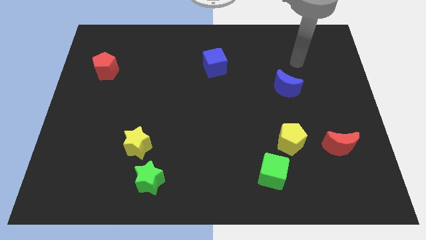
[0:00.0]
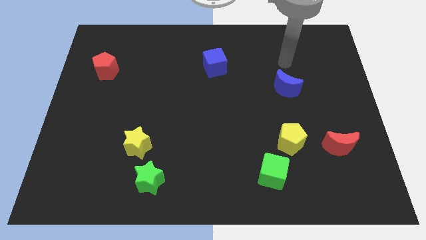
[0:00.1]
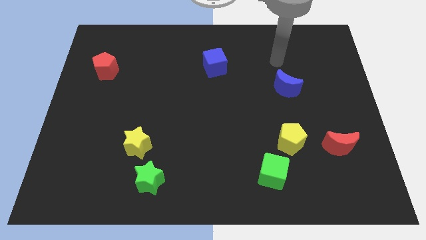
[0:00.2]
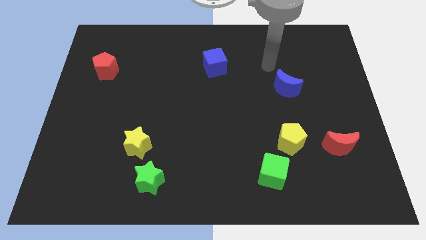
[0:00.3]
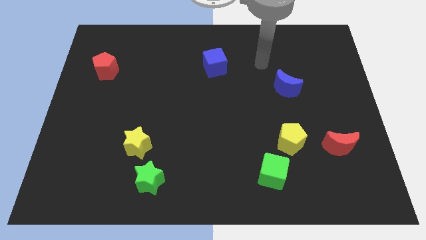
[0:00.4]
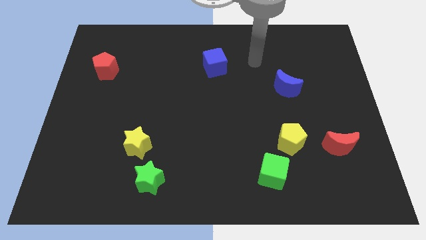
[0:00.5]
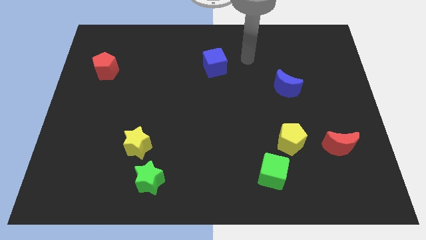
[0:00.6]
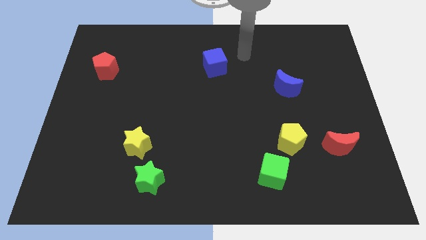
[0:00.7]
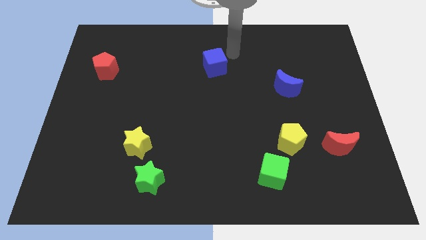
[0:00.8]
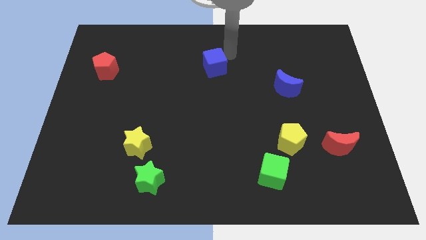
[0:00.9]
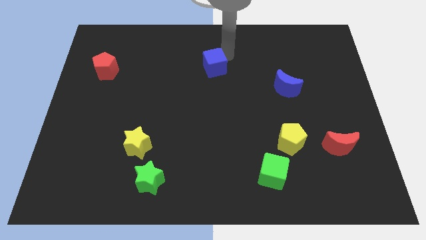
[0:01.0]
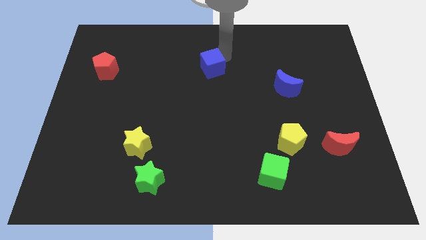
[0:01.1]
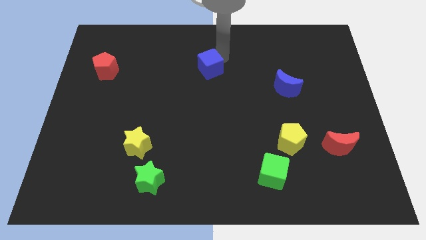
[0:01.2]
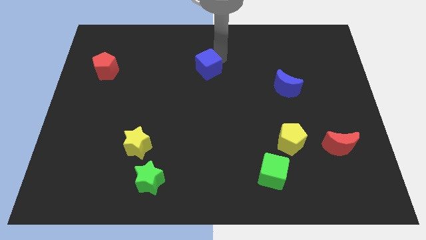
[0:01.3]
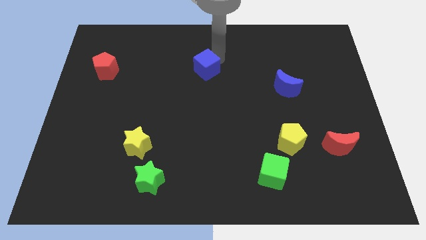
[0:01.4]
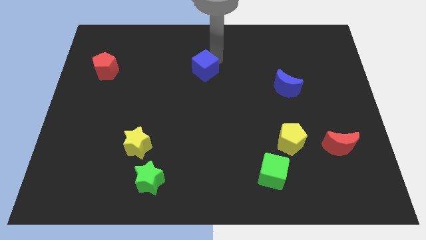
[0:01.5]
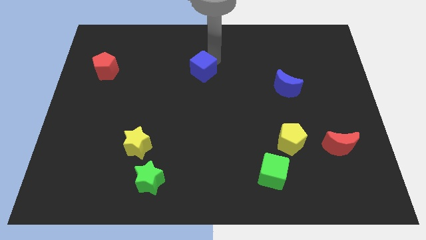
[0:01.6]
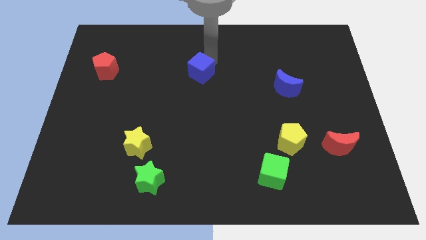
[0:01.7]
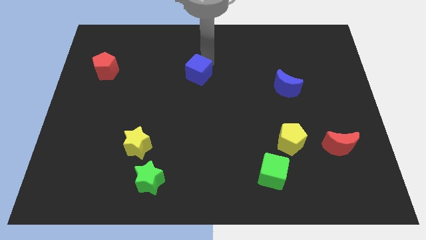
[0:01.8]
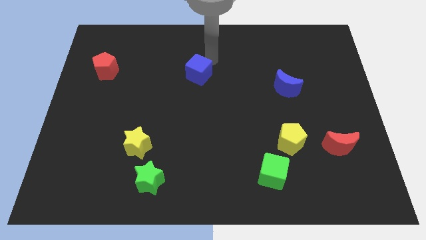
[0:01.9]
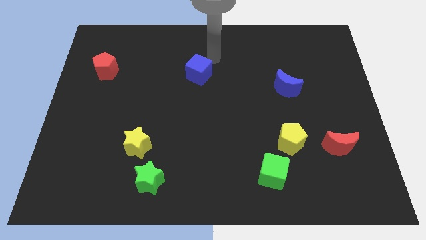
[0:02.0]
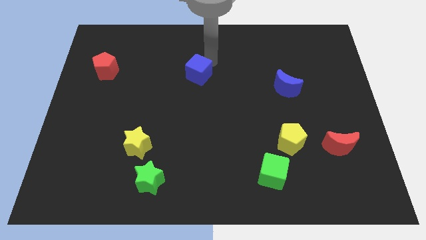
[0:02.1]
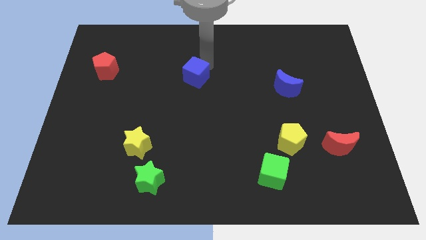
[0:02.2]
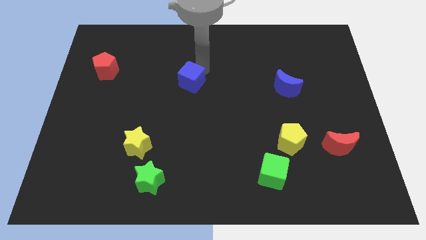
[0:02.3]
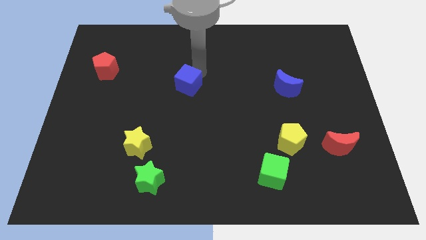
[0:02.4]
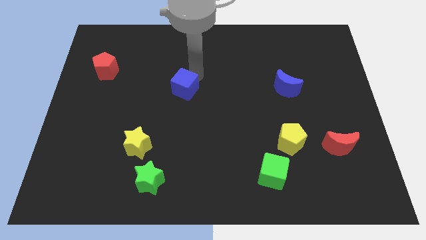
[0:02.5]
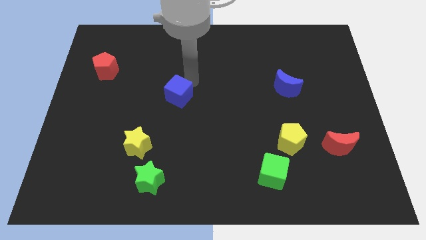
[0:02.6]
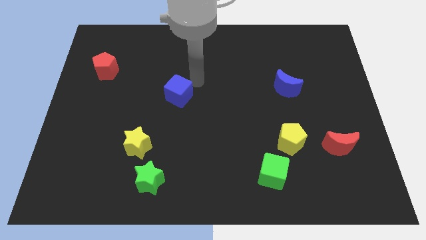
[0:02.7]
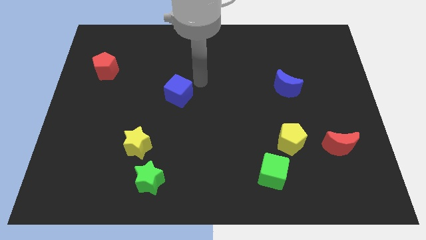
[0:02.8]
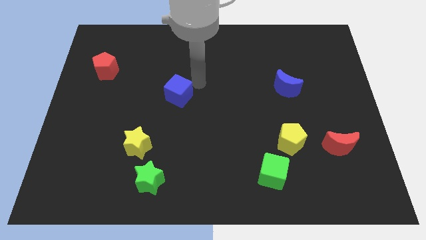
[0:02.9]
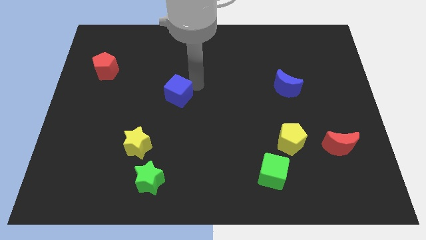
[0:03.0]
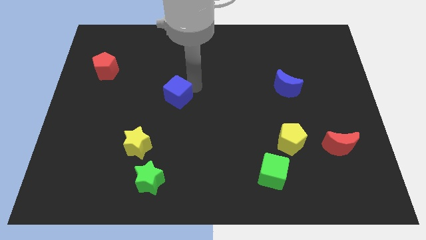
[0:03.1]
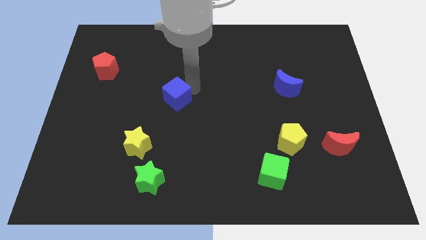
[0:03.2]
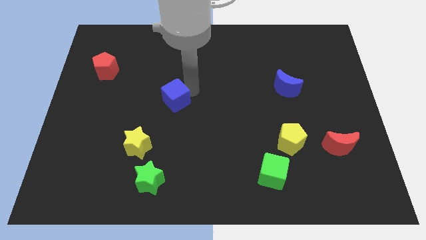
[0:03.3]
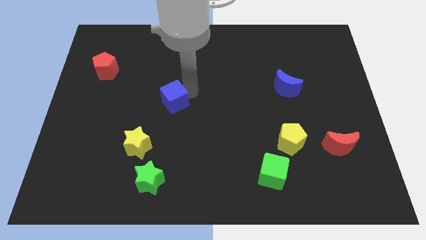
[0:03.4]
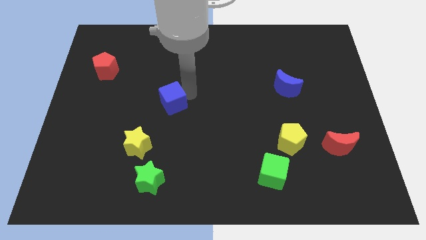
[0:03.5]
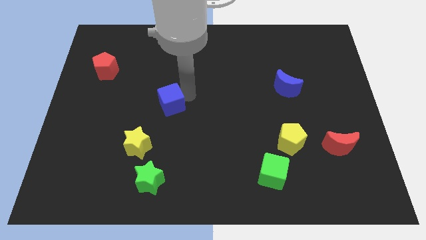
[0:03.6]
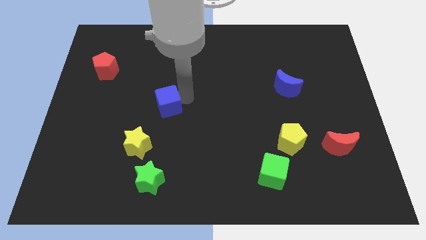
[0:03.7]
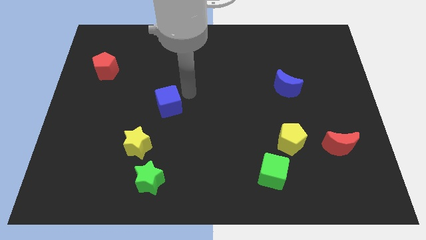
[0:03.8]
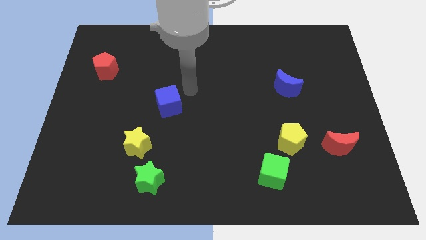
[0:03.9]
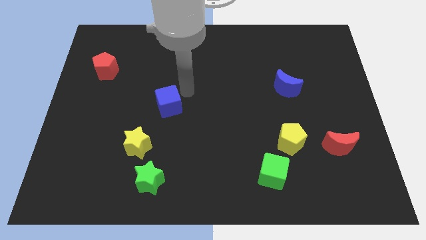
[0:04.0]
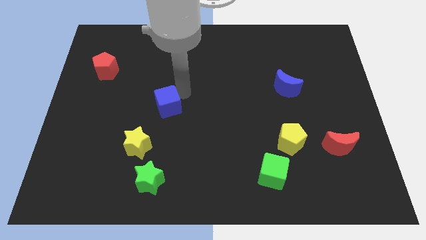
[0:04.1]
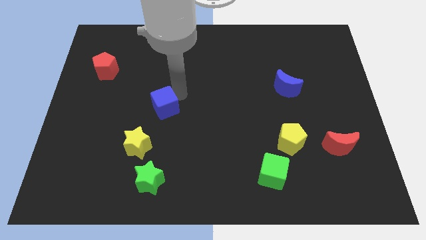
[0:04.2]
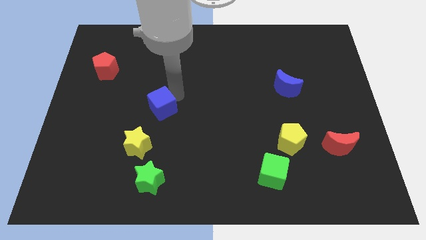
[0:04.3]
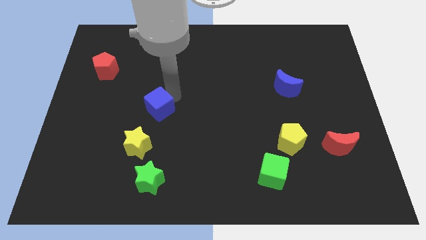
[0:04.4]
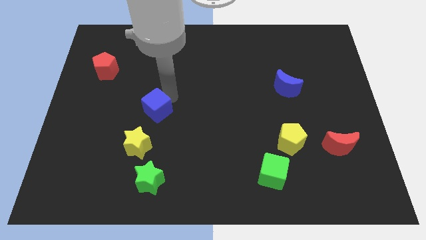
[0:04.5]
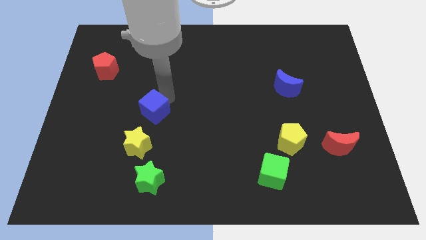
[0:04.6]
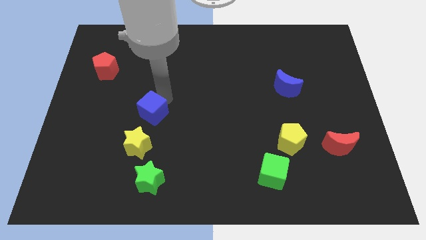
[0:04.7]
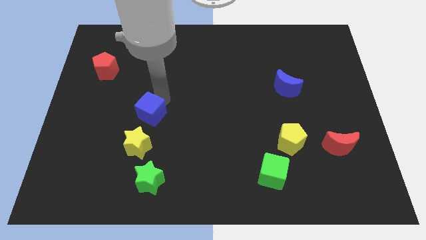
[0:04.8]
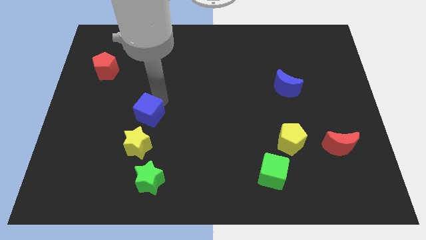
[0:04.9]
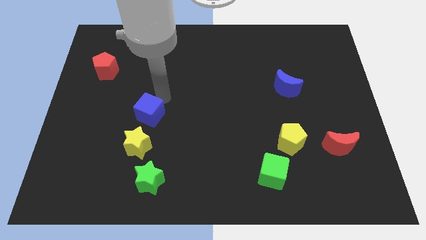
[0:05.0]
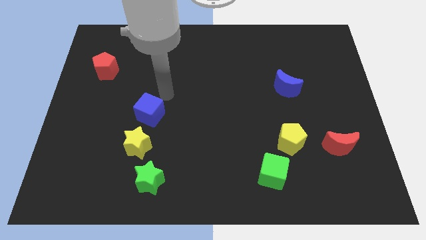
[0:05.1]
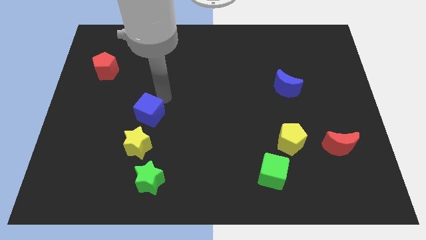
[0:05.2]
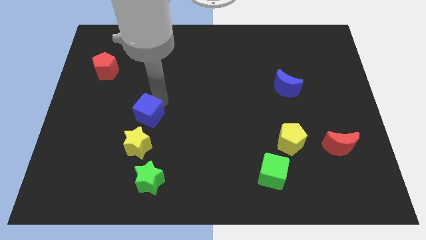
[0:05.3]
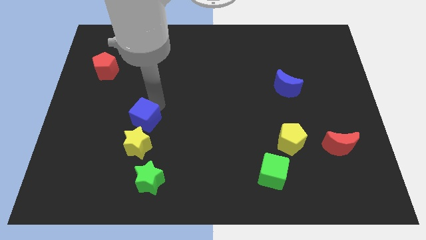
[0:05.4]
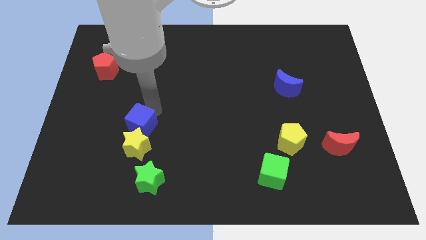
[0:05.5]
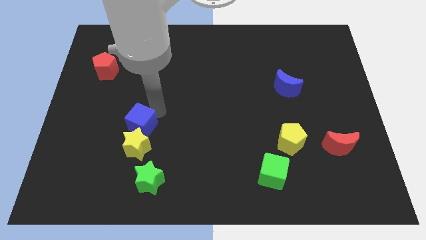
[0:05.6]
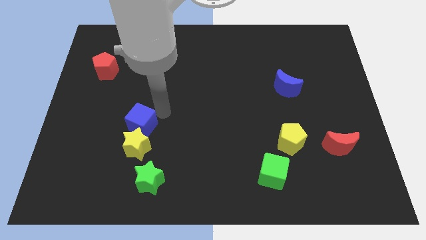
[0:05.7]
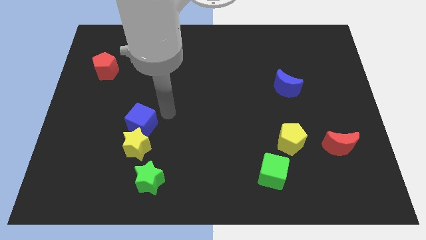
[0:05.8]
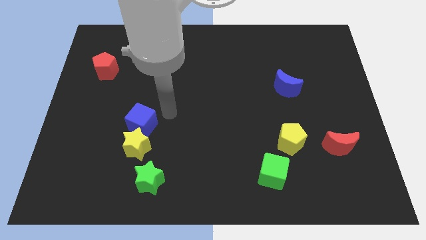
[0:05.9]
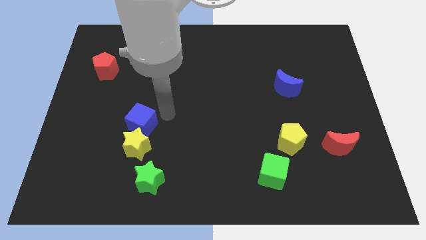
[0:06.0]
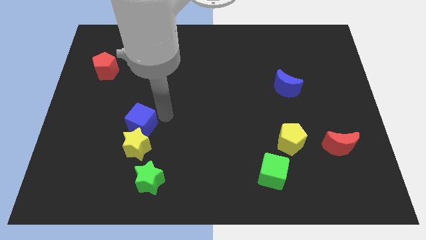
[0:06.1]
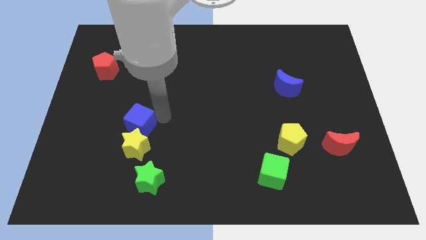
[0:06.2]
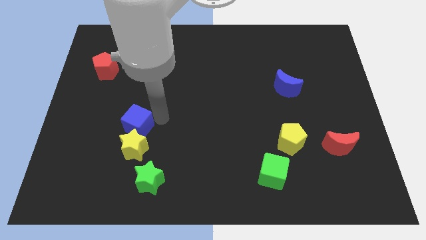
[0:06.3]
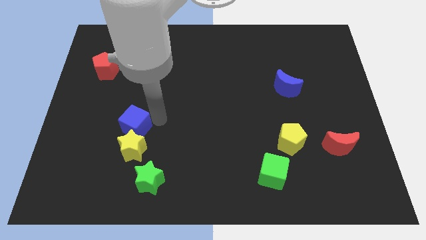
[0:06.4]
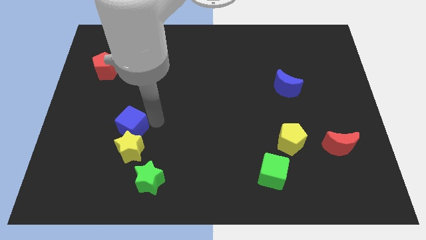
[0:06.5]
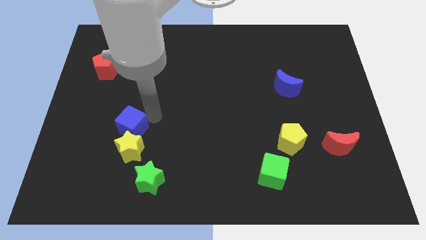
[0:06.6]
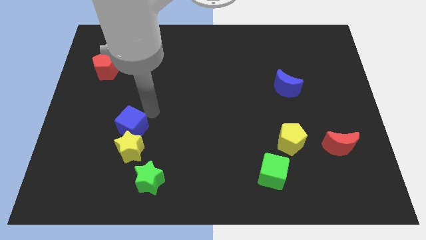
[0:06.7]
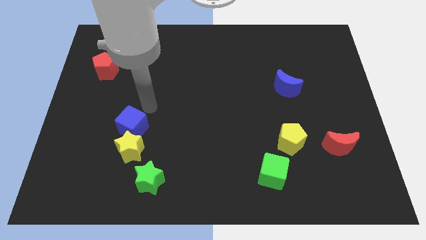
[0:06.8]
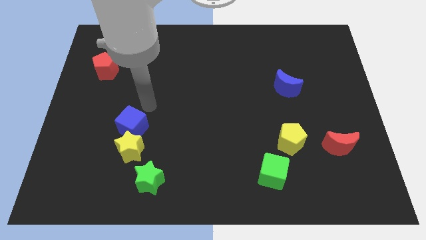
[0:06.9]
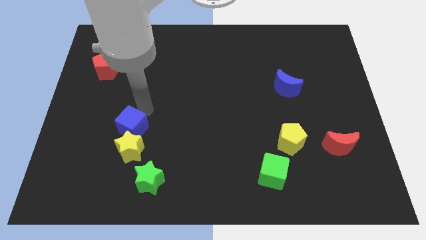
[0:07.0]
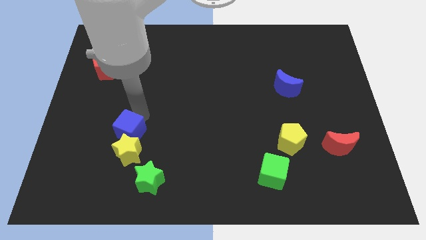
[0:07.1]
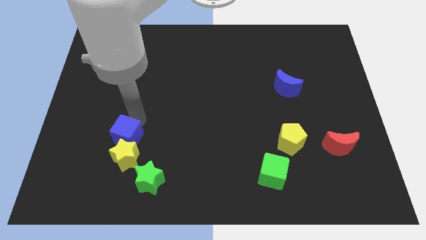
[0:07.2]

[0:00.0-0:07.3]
move the blue cube diagonally up and to the left of the green star

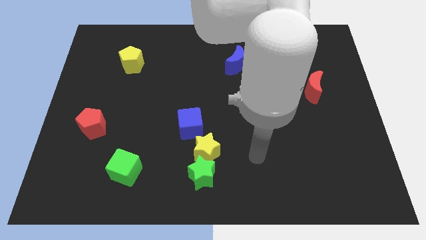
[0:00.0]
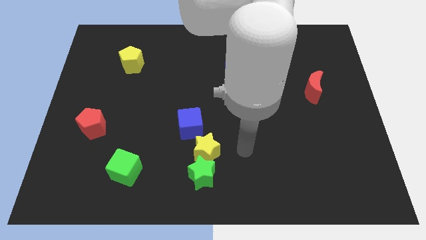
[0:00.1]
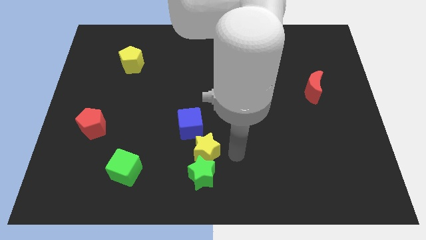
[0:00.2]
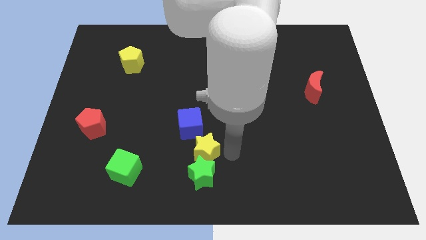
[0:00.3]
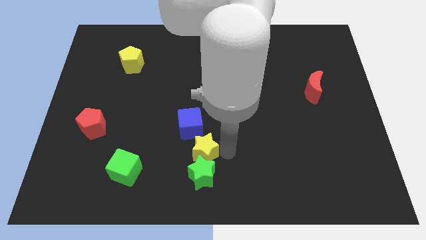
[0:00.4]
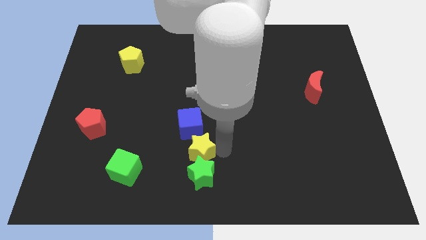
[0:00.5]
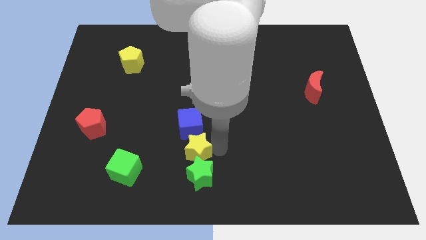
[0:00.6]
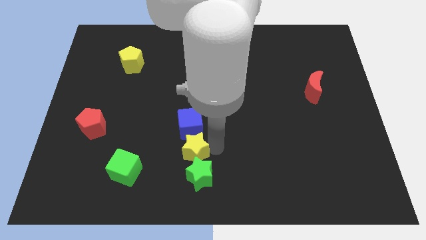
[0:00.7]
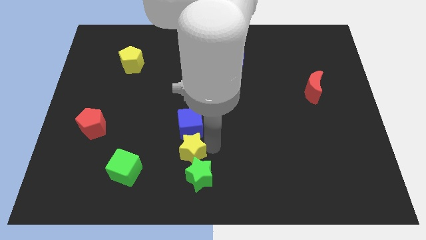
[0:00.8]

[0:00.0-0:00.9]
move the yellow star to the bottom left side of the blue cube
